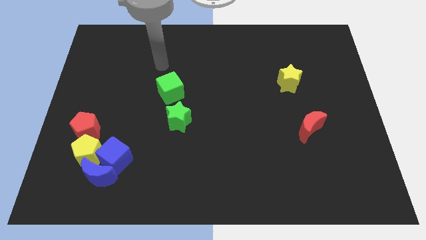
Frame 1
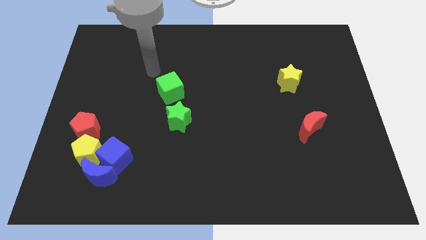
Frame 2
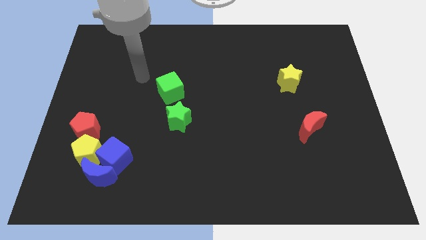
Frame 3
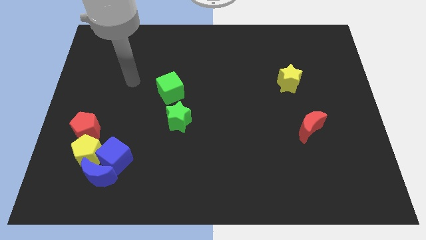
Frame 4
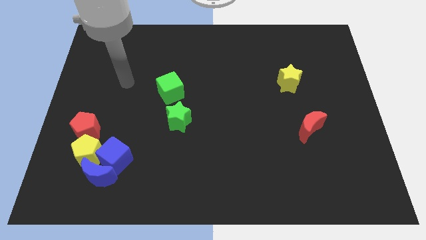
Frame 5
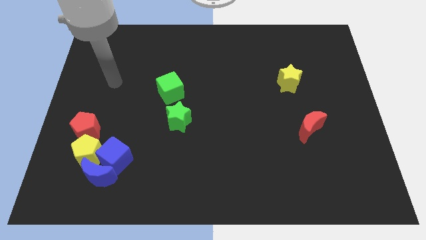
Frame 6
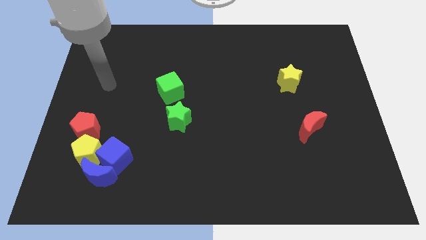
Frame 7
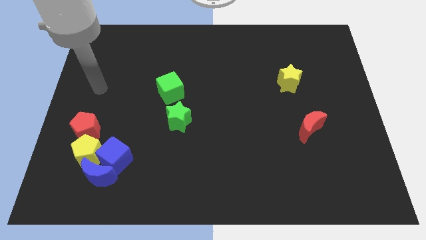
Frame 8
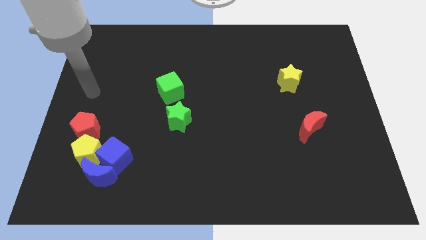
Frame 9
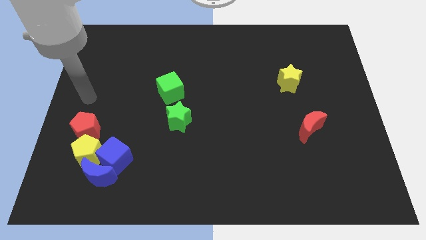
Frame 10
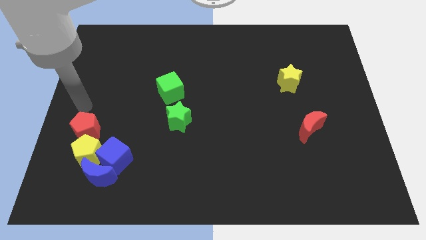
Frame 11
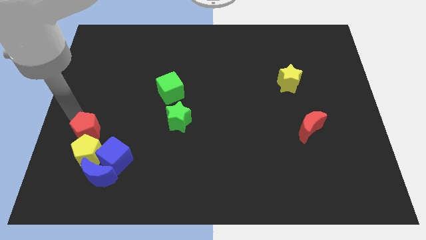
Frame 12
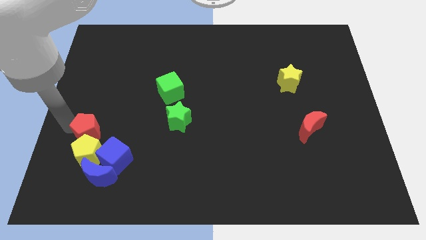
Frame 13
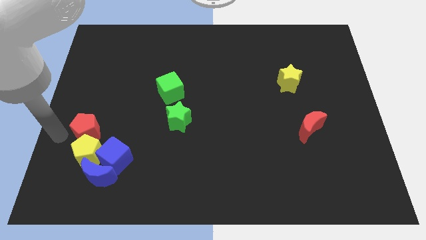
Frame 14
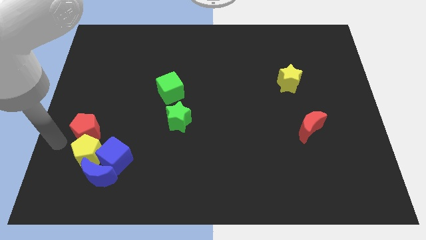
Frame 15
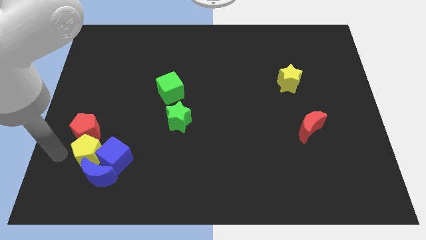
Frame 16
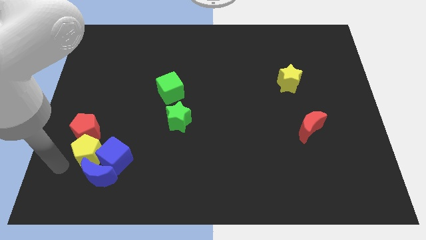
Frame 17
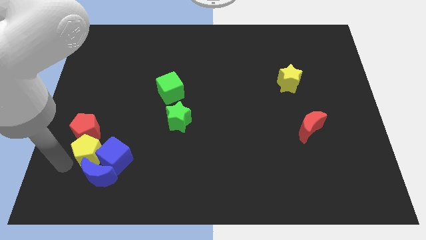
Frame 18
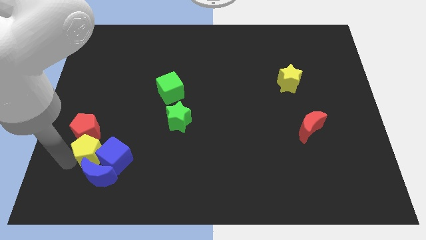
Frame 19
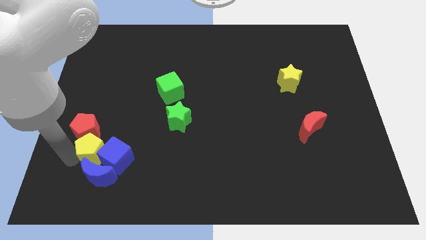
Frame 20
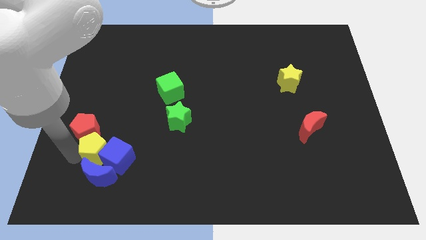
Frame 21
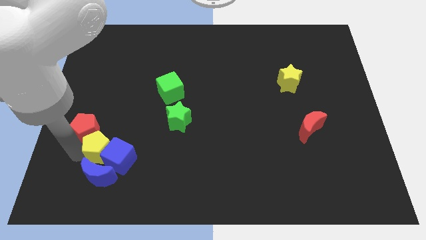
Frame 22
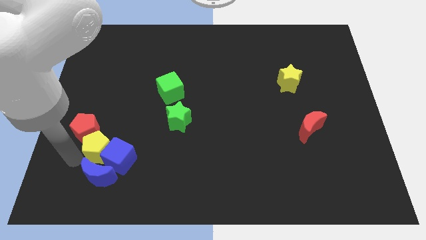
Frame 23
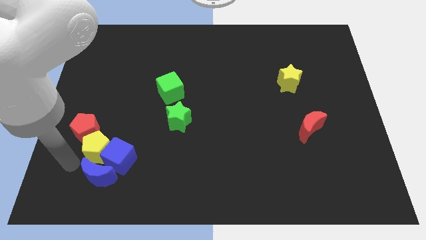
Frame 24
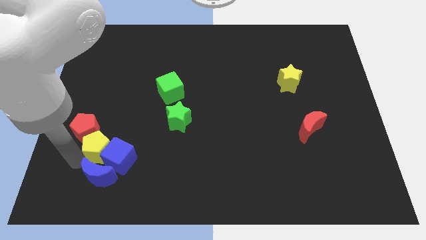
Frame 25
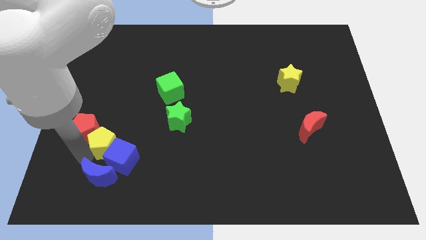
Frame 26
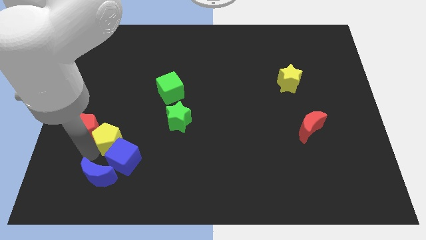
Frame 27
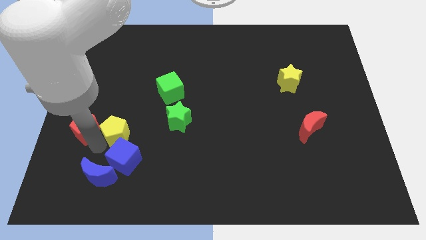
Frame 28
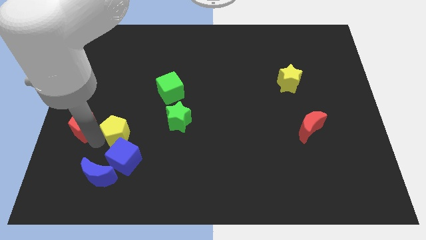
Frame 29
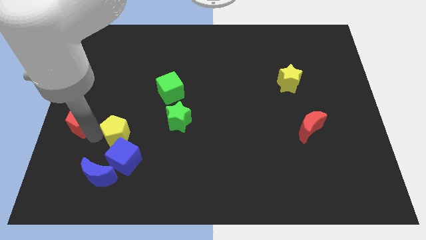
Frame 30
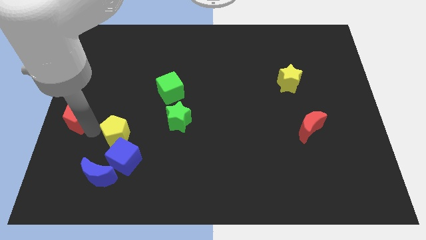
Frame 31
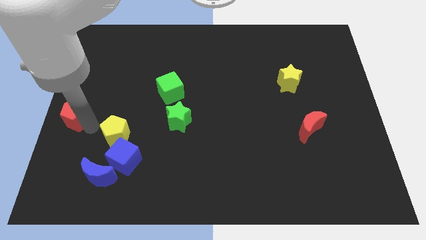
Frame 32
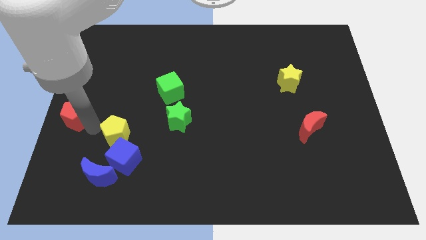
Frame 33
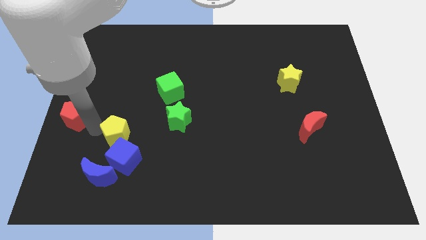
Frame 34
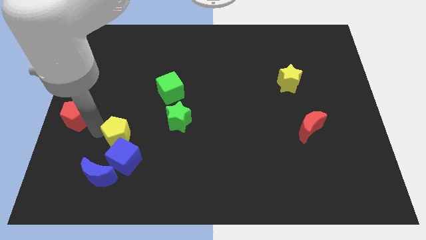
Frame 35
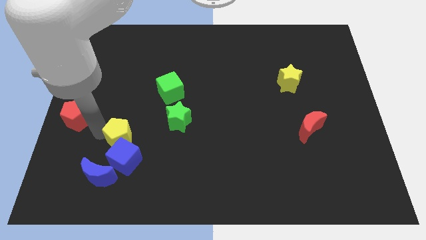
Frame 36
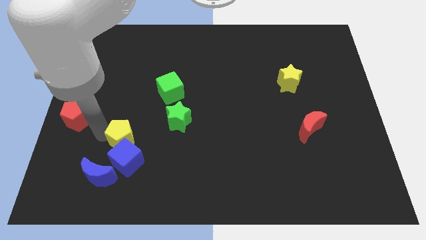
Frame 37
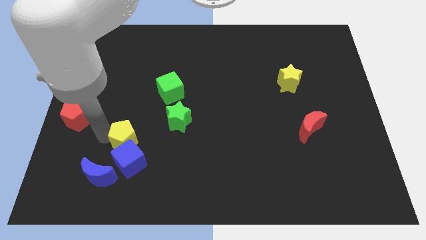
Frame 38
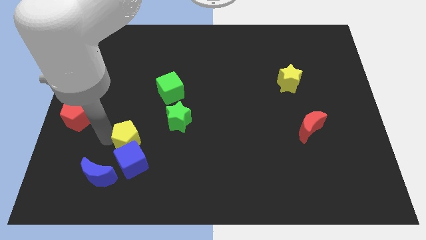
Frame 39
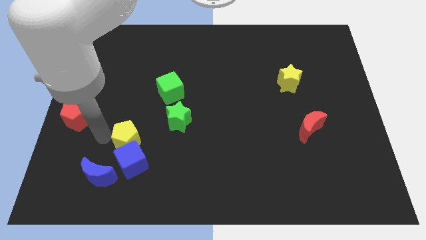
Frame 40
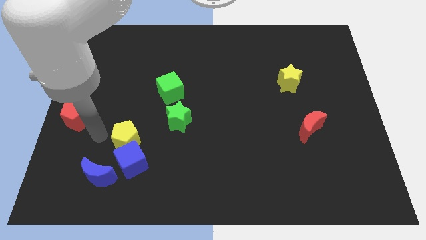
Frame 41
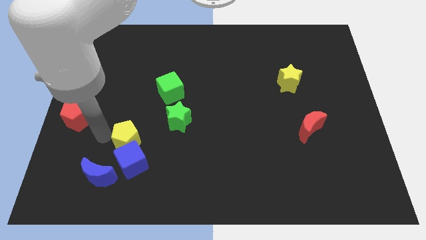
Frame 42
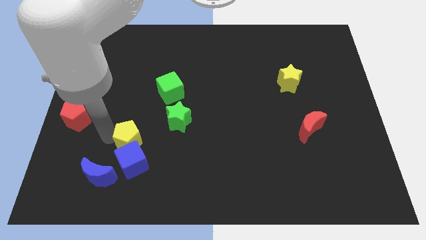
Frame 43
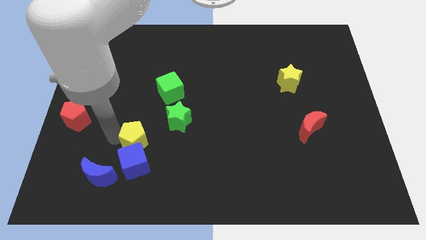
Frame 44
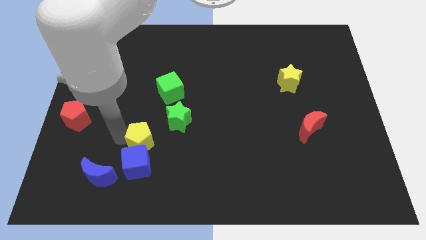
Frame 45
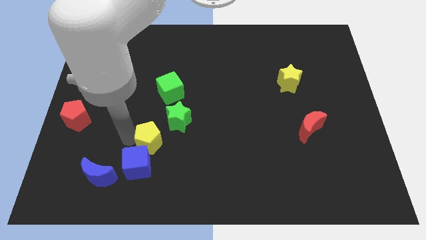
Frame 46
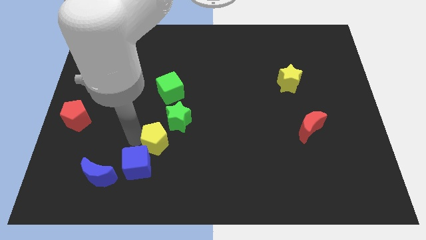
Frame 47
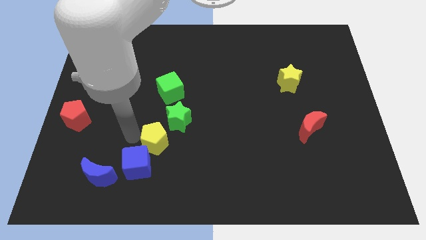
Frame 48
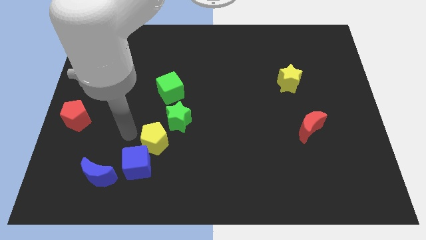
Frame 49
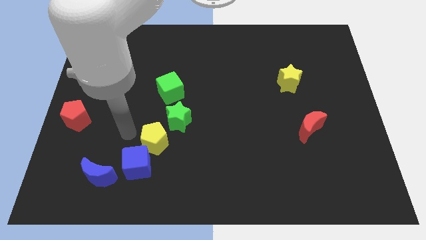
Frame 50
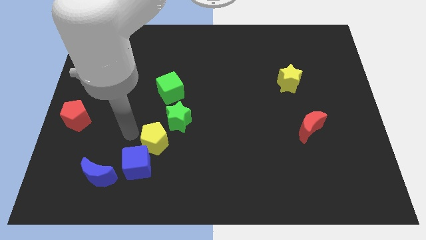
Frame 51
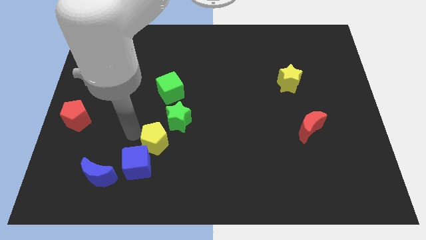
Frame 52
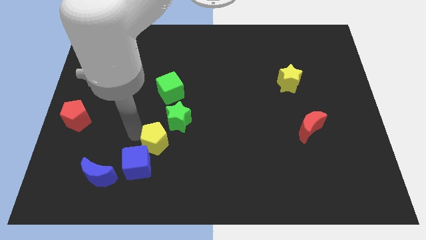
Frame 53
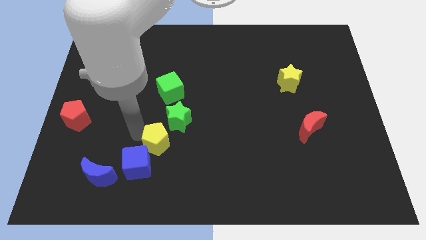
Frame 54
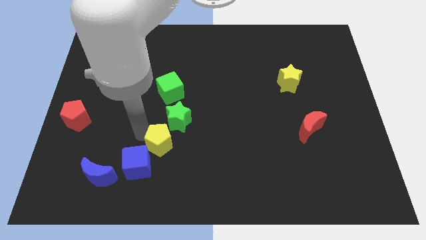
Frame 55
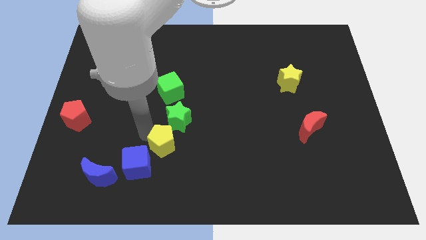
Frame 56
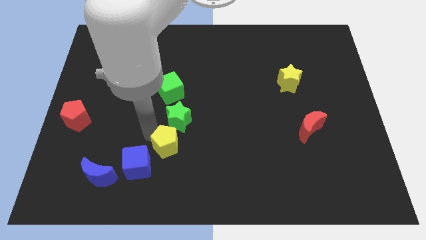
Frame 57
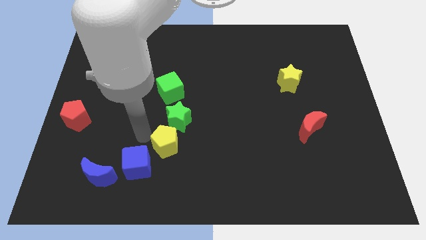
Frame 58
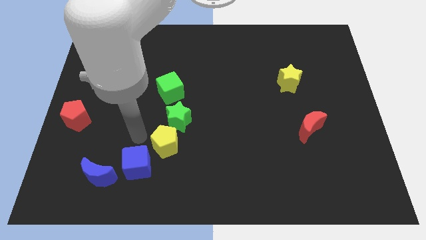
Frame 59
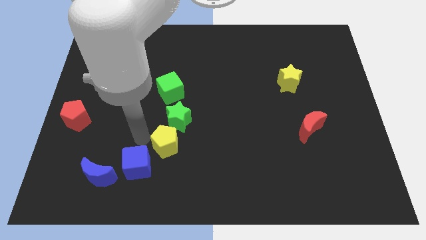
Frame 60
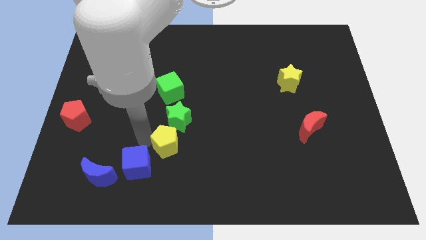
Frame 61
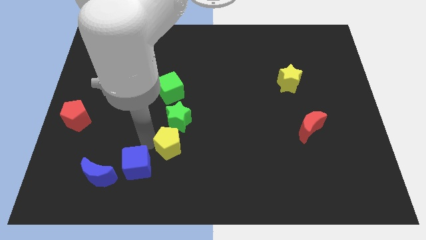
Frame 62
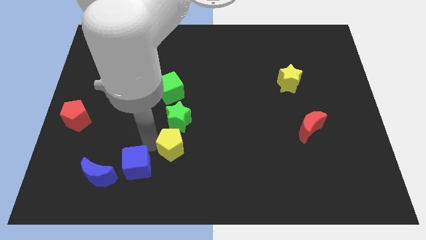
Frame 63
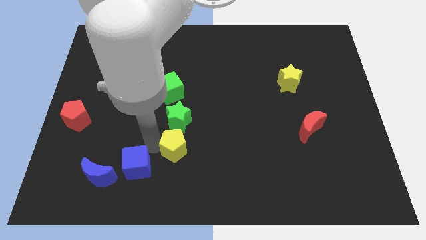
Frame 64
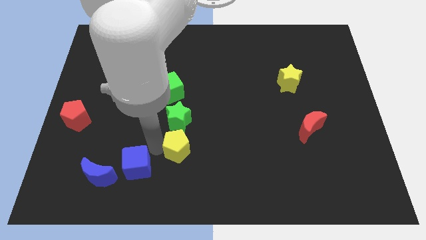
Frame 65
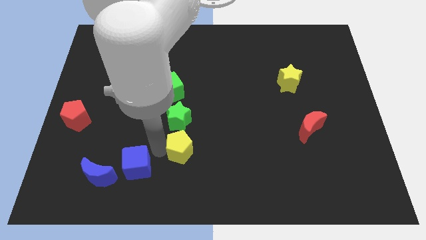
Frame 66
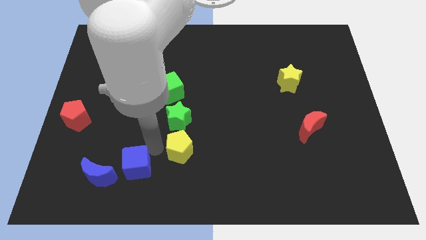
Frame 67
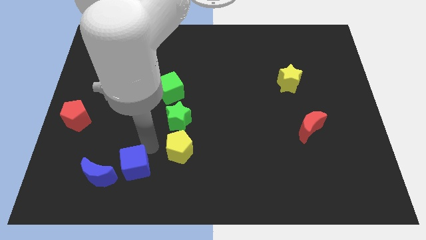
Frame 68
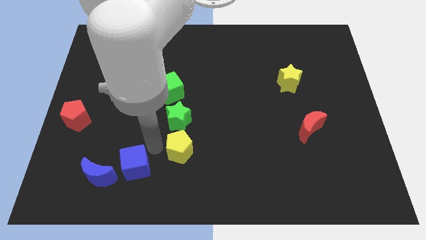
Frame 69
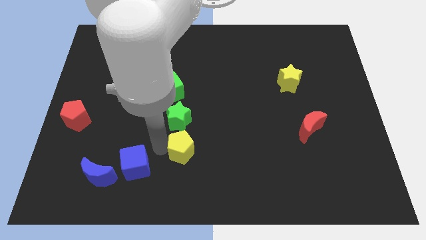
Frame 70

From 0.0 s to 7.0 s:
move the yellow pentagon to the right

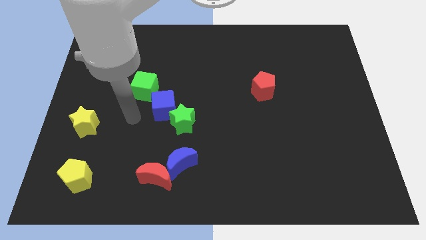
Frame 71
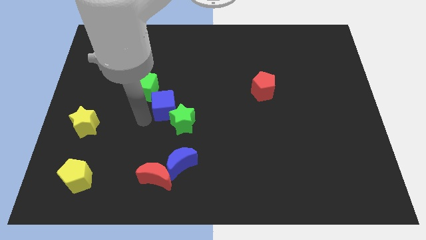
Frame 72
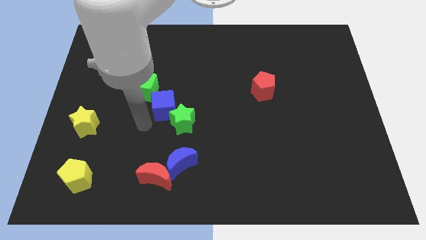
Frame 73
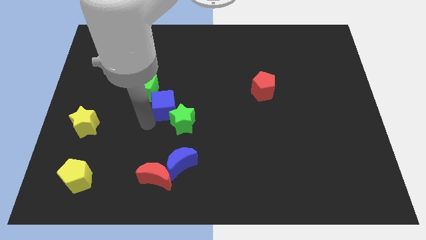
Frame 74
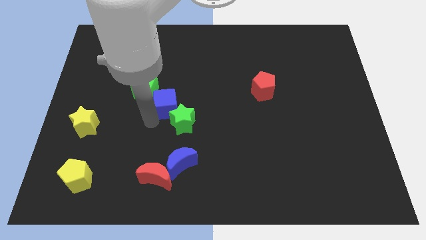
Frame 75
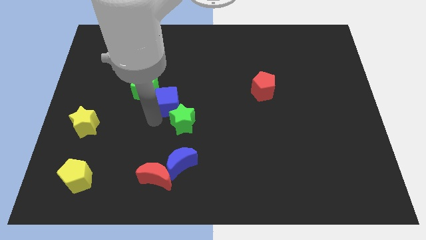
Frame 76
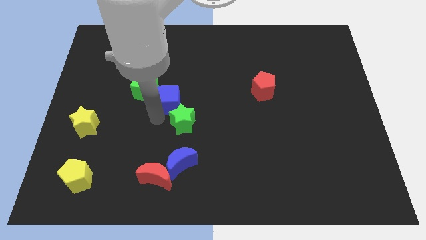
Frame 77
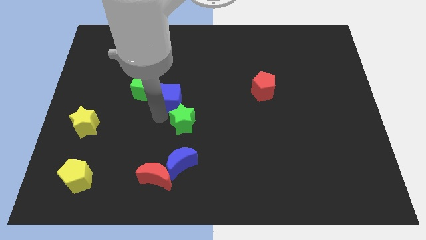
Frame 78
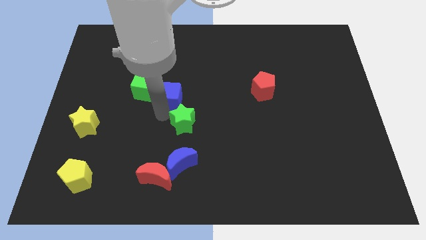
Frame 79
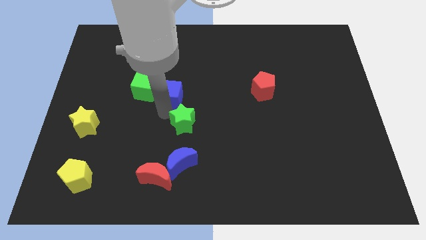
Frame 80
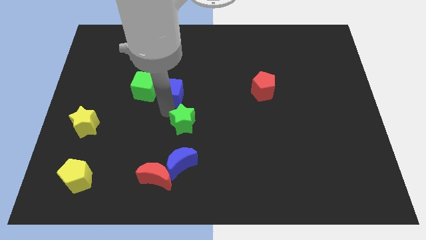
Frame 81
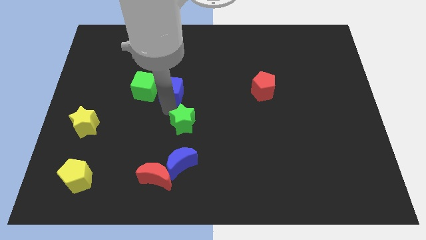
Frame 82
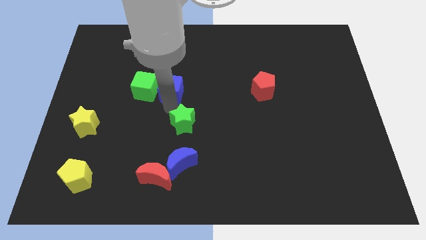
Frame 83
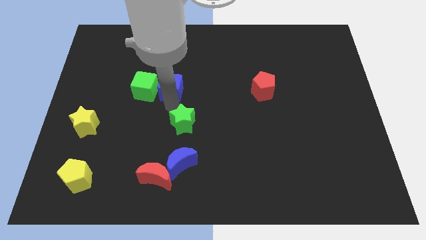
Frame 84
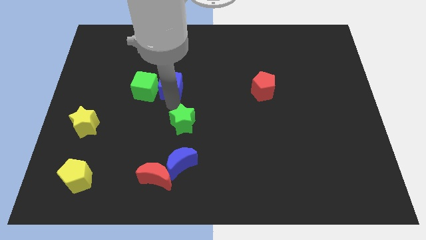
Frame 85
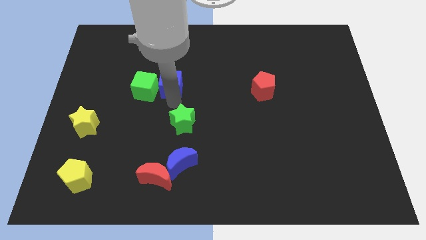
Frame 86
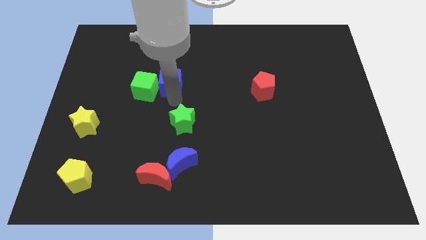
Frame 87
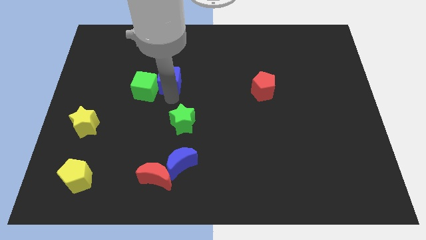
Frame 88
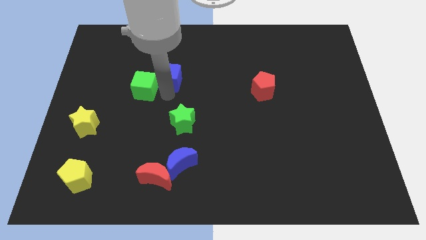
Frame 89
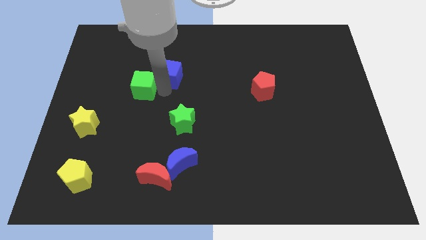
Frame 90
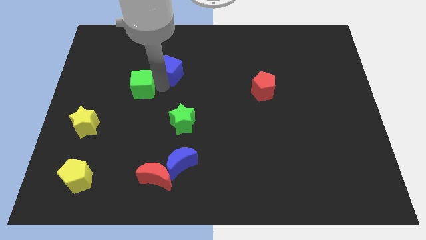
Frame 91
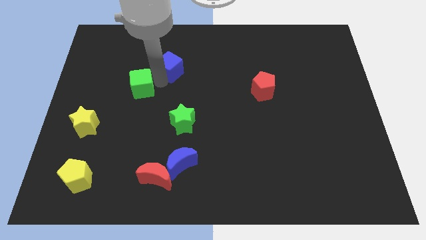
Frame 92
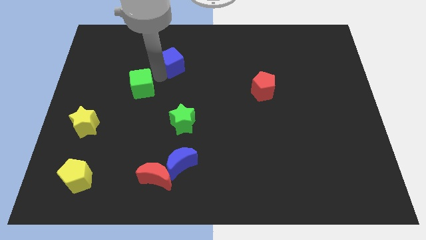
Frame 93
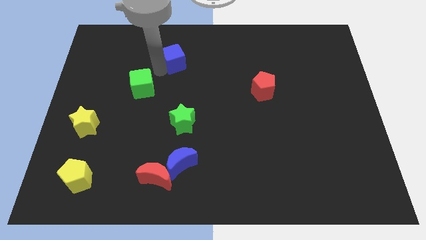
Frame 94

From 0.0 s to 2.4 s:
push the blue cube a bit upwards and to the right
